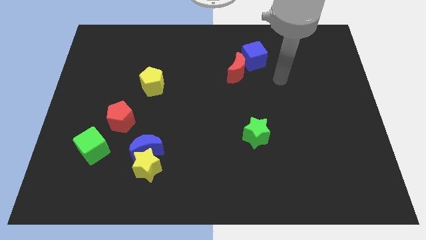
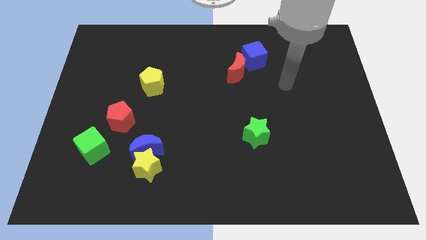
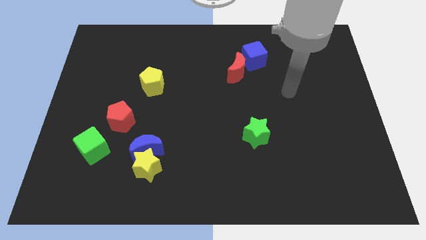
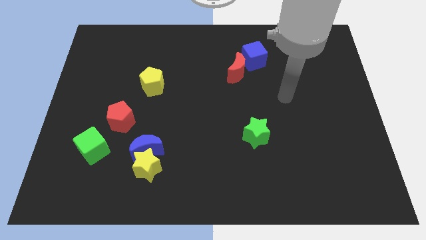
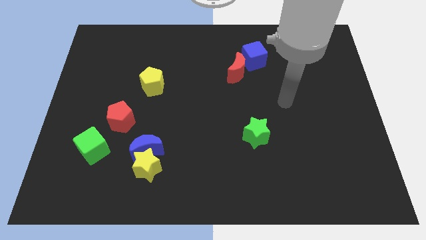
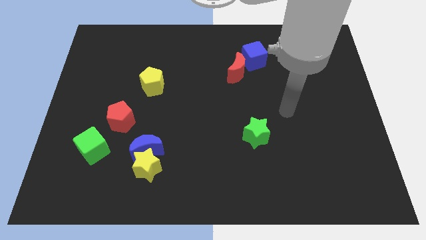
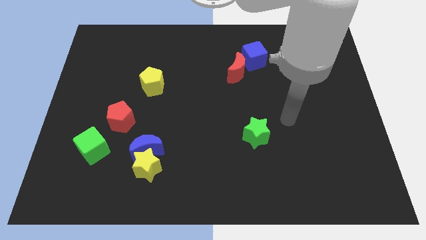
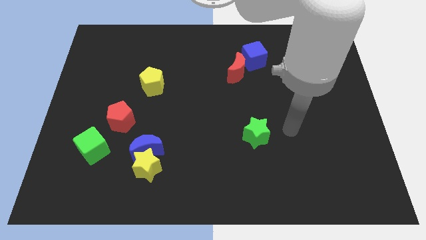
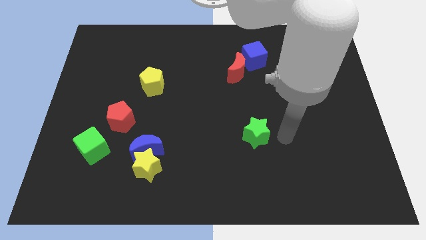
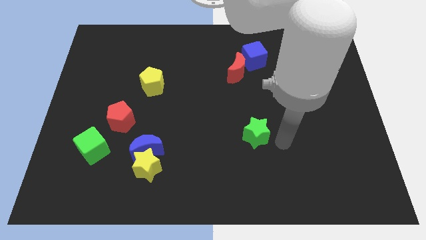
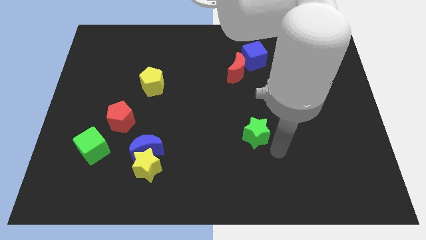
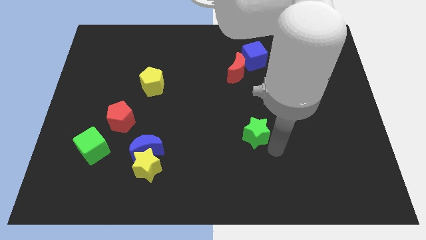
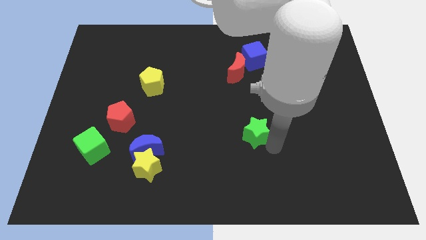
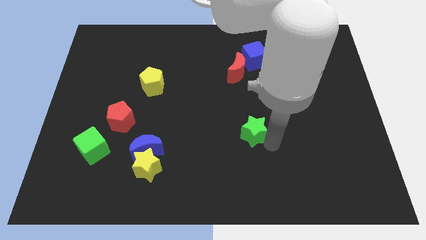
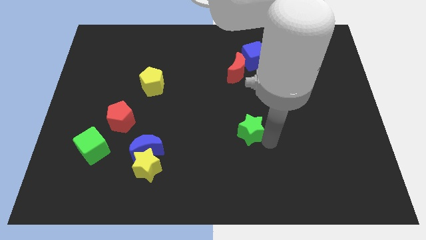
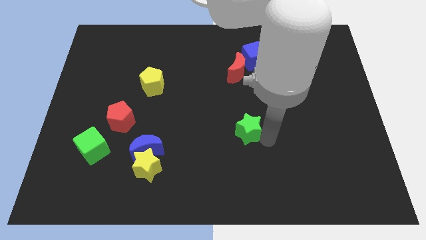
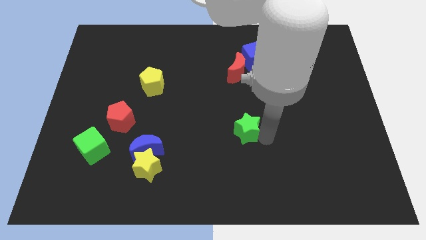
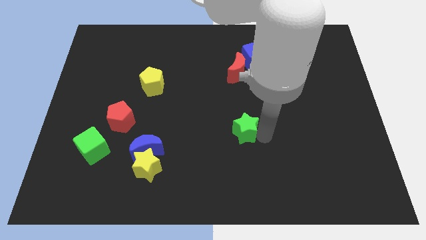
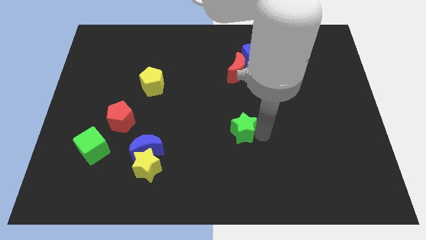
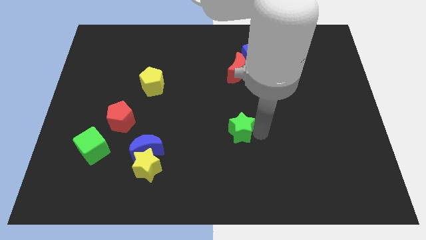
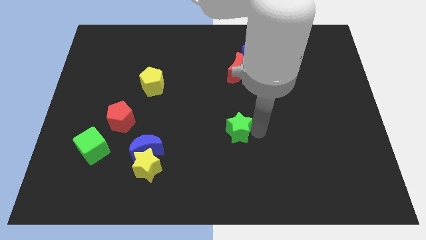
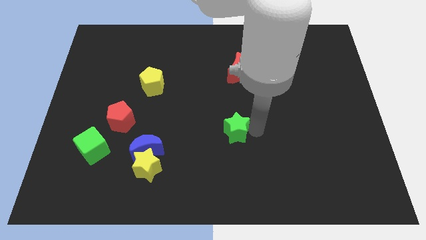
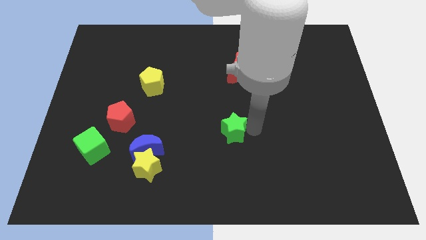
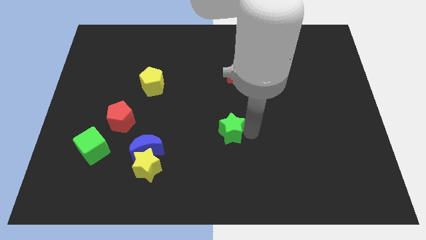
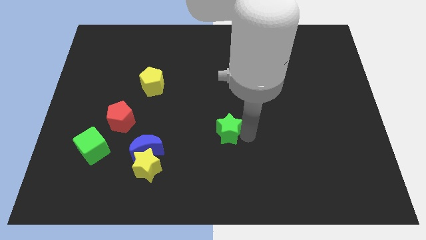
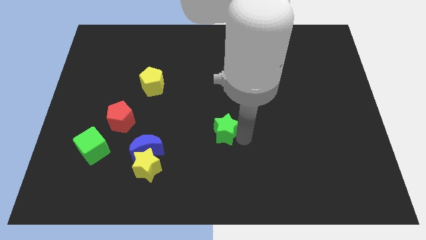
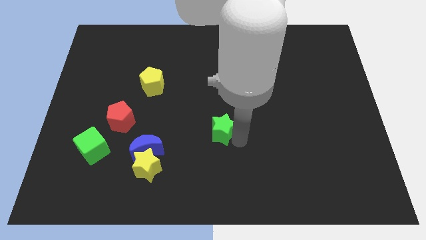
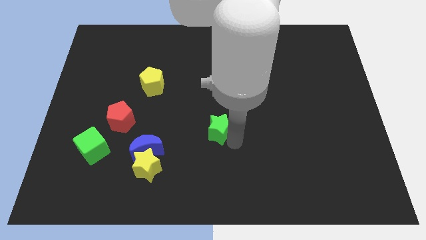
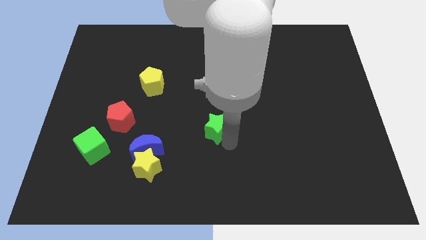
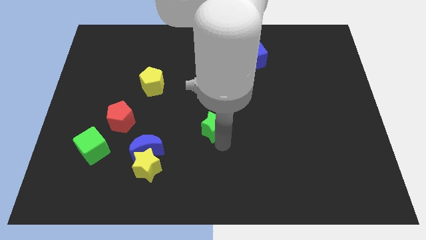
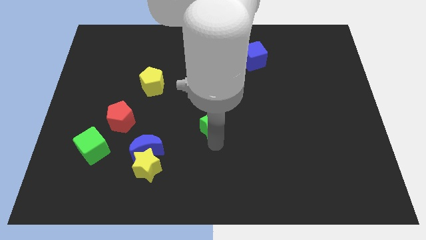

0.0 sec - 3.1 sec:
move the green star slightly diagonally upwards and to the left

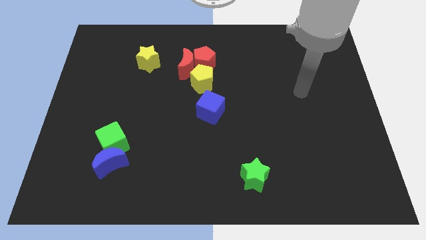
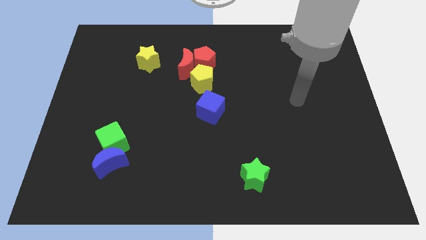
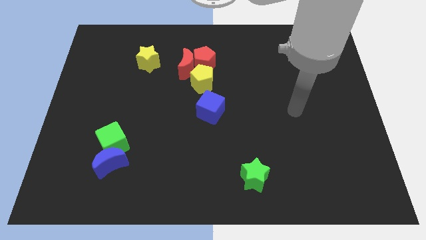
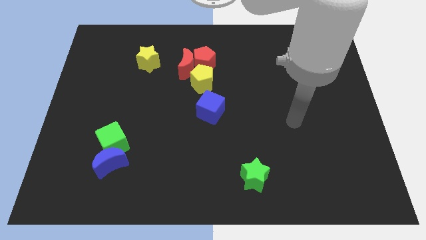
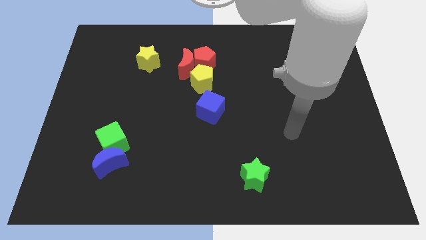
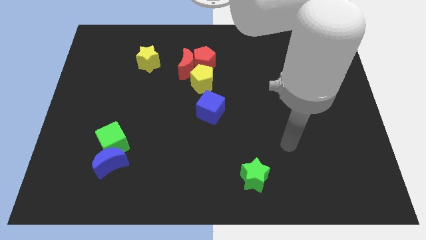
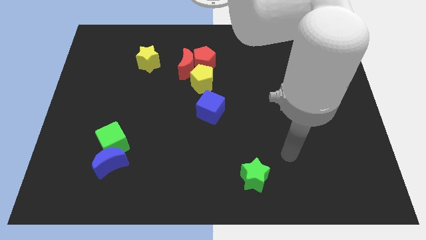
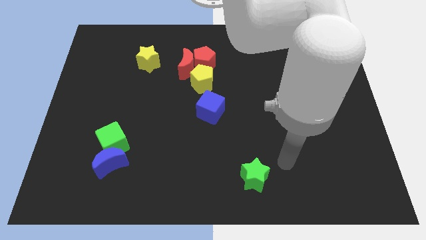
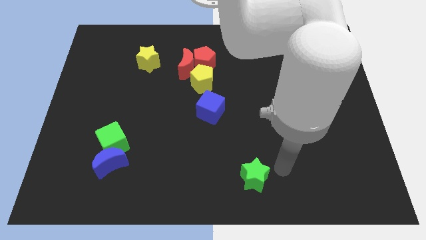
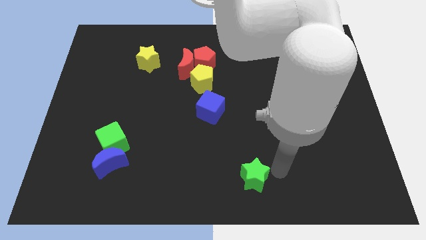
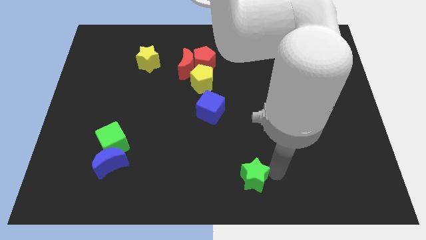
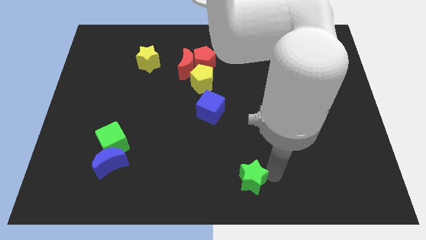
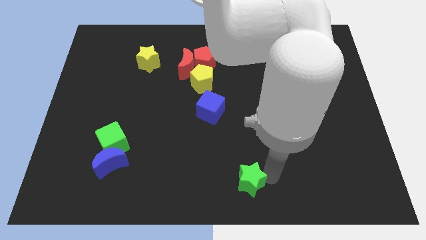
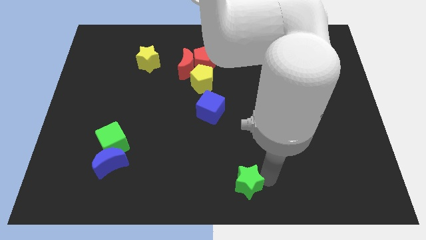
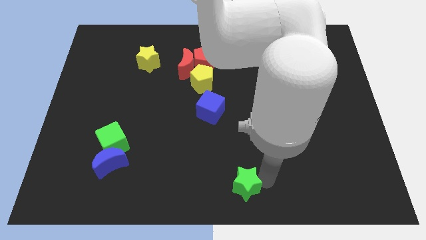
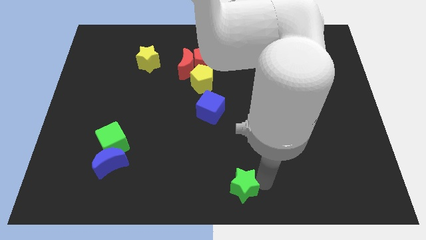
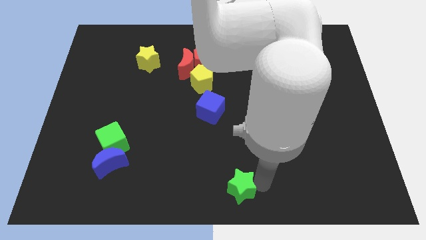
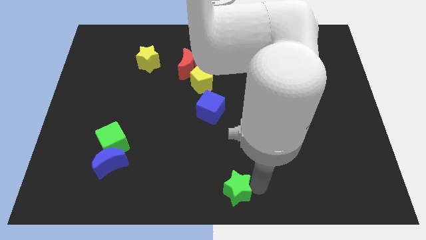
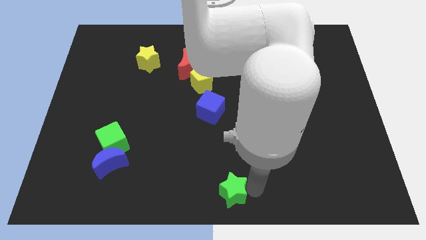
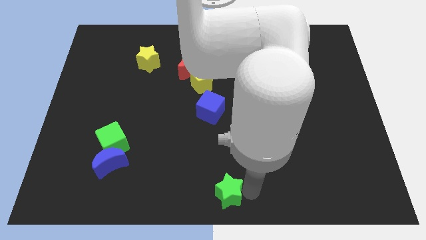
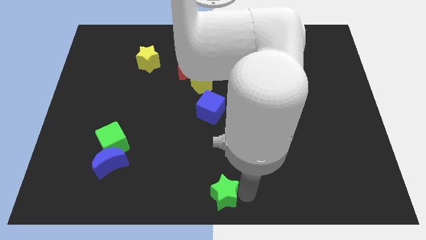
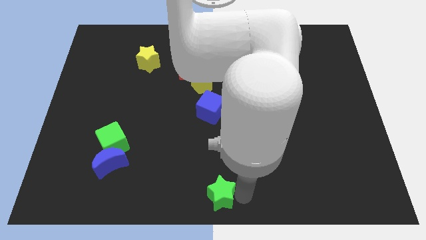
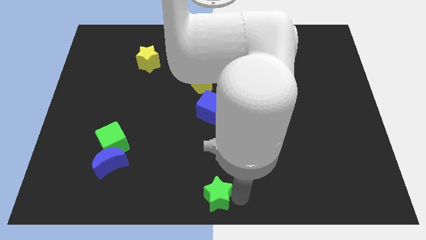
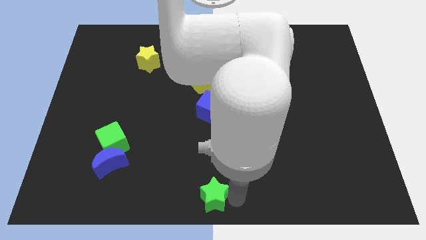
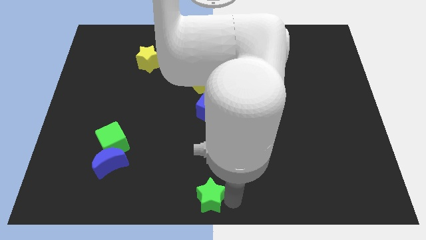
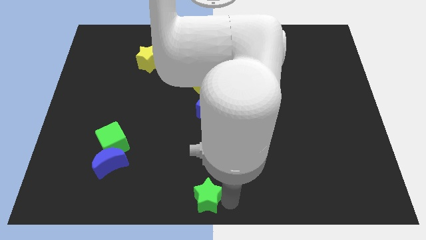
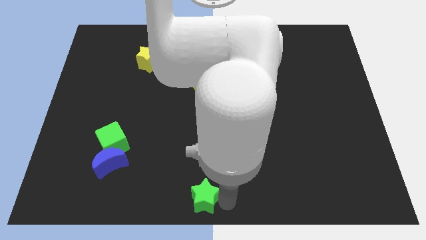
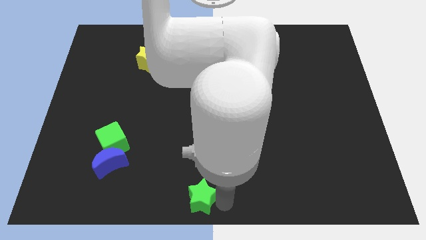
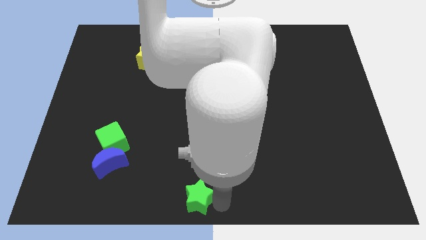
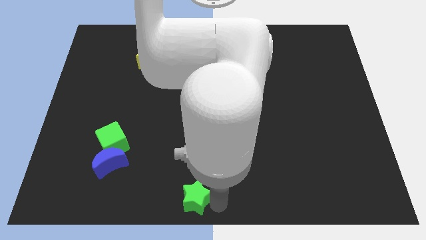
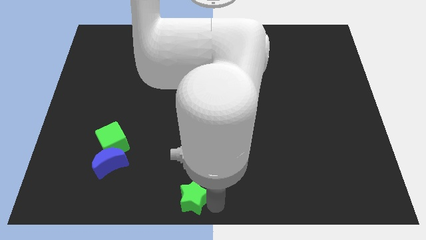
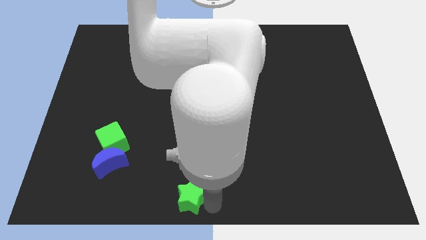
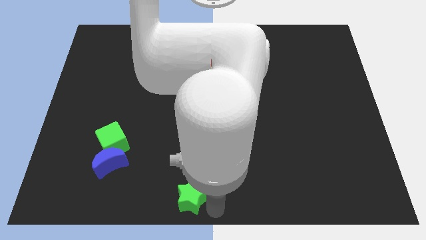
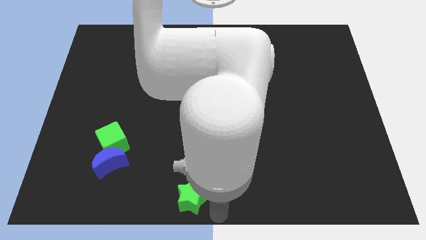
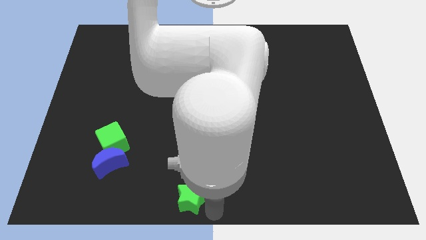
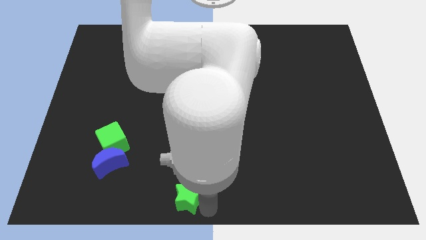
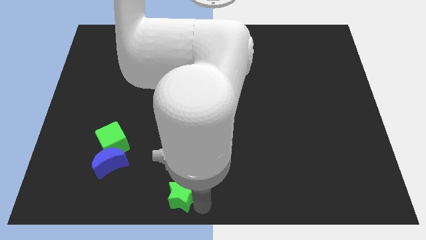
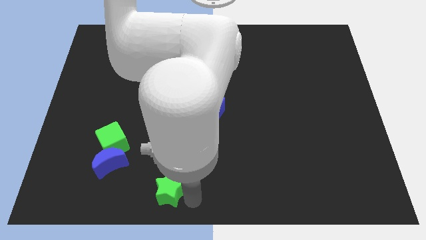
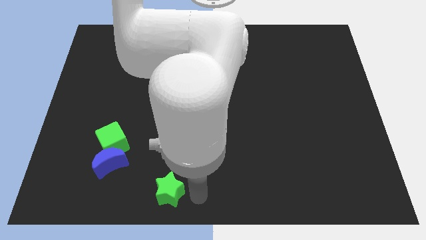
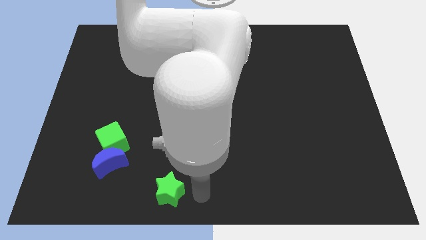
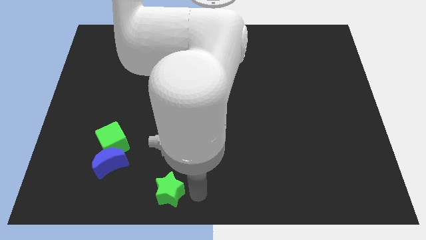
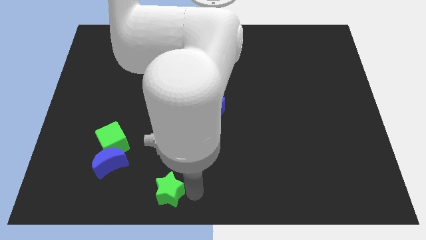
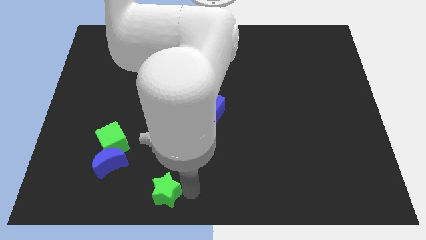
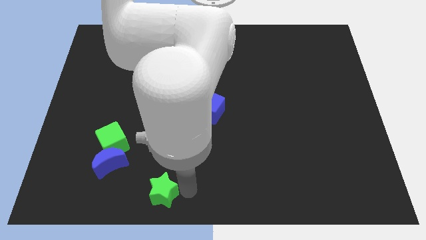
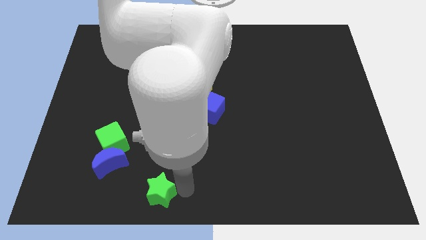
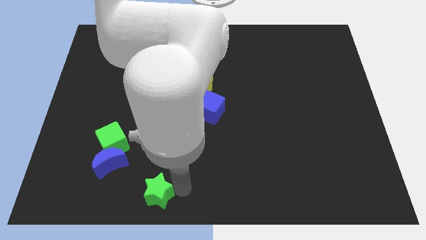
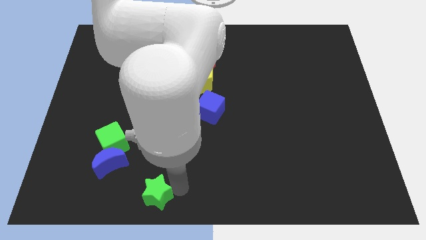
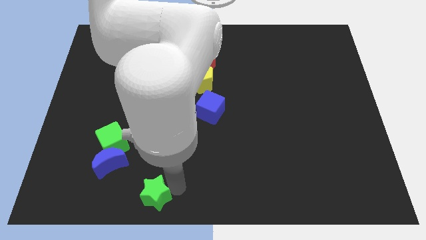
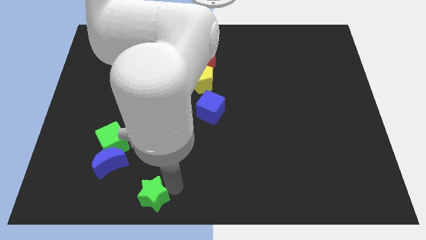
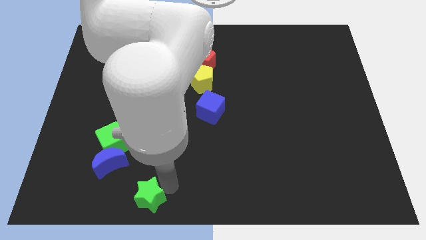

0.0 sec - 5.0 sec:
move the green star left

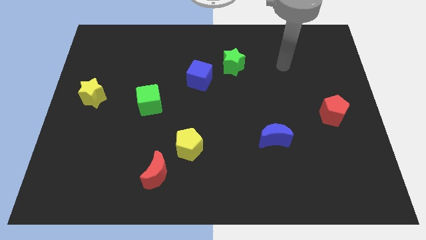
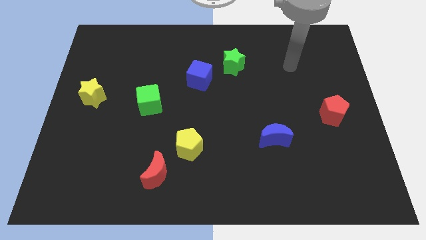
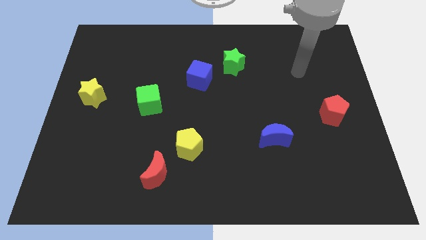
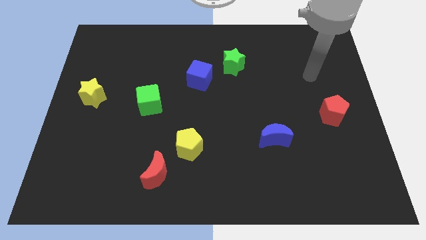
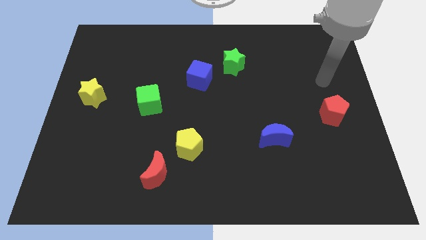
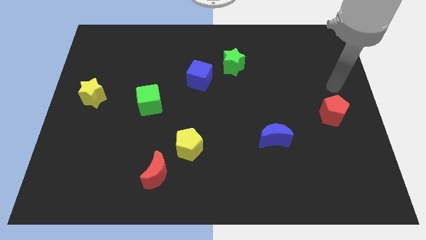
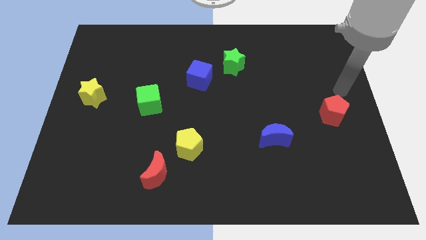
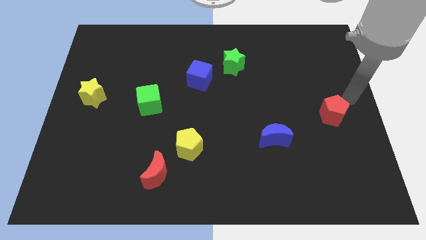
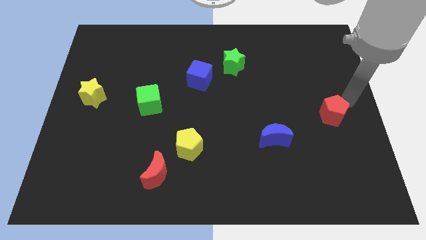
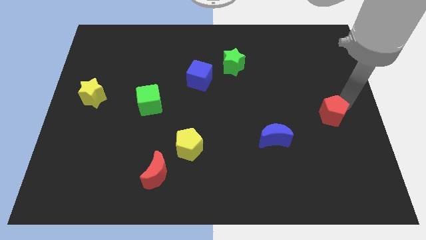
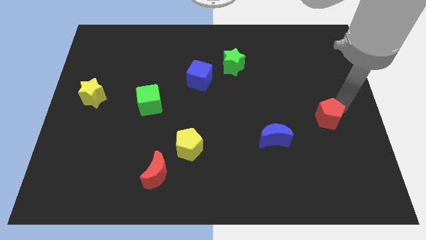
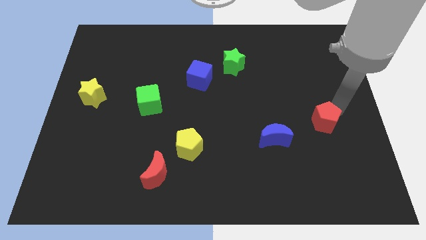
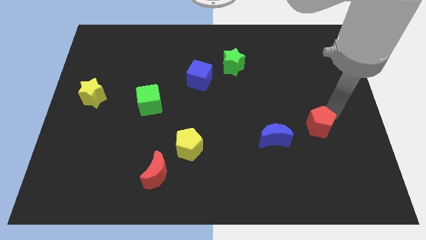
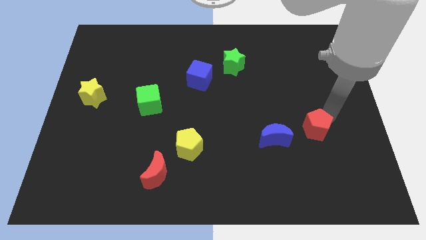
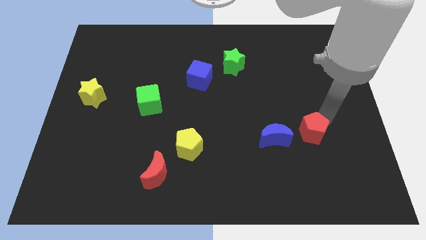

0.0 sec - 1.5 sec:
slightly slide the red pentagon downwards and to the left
